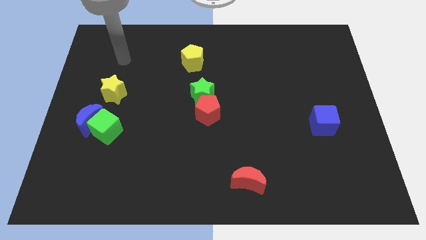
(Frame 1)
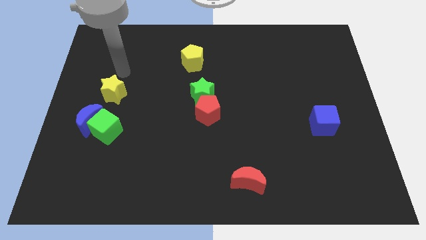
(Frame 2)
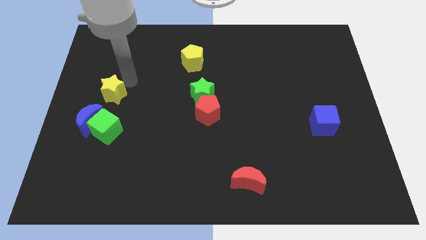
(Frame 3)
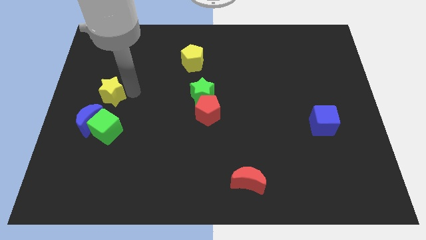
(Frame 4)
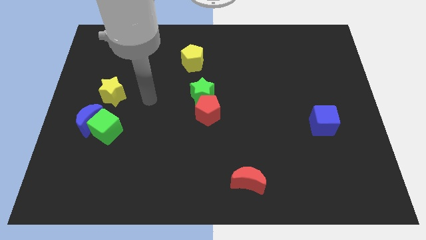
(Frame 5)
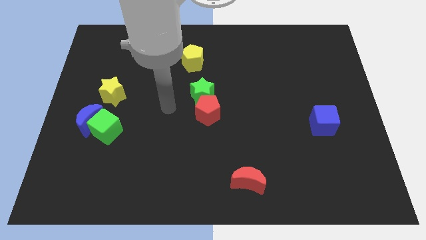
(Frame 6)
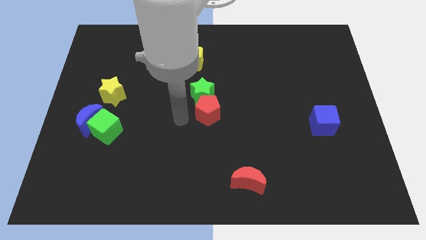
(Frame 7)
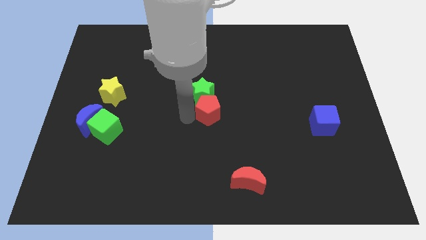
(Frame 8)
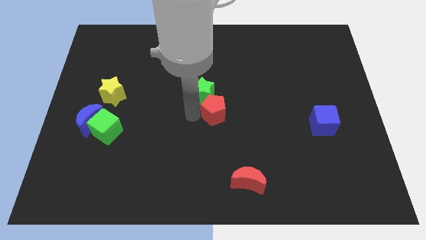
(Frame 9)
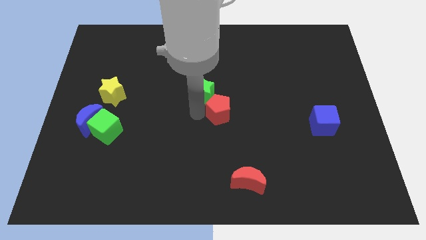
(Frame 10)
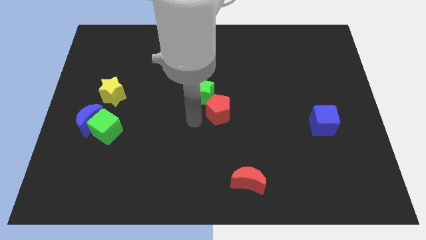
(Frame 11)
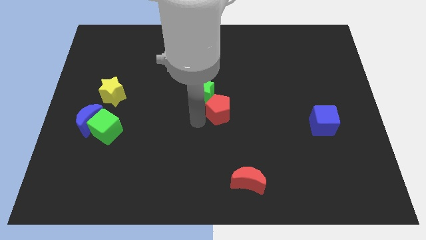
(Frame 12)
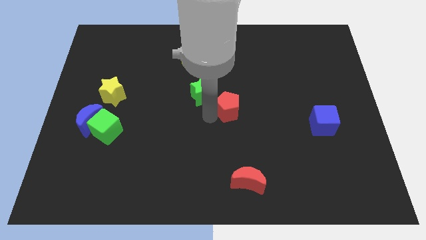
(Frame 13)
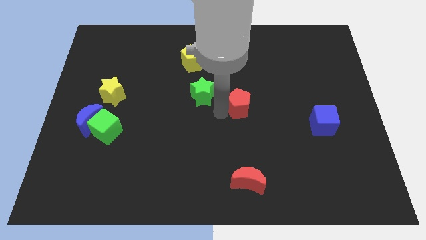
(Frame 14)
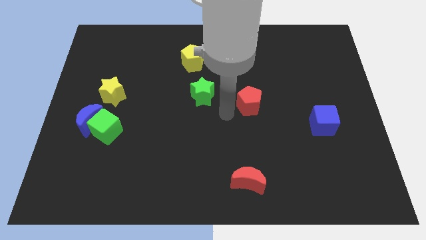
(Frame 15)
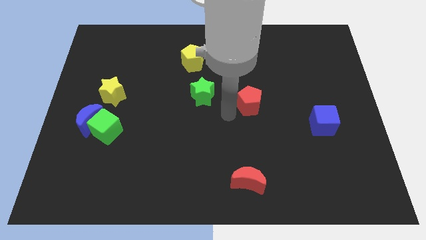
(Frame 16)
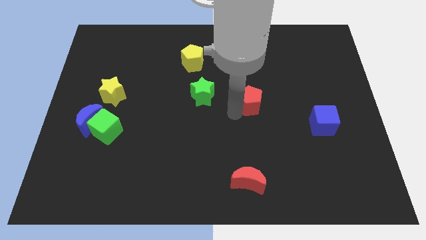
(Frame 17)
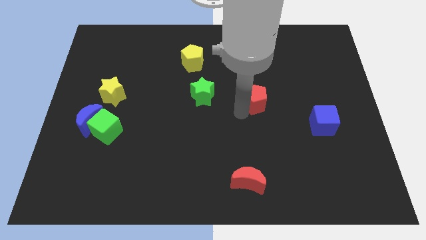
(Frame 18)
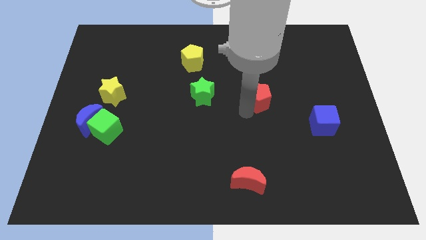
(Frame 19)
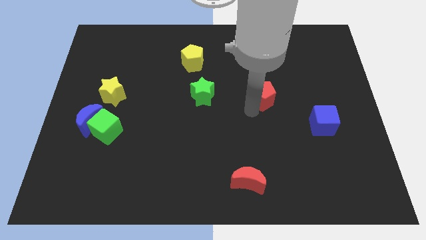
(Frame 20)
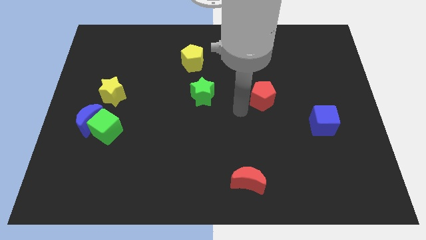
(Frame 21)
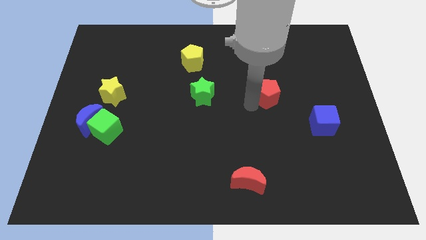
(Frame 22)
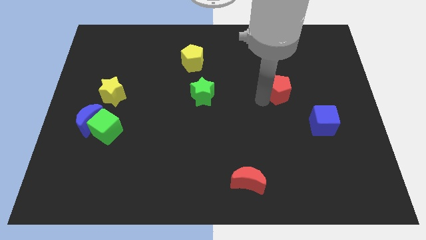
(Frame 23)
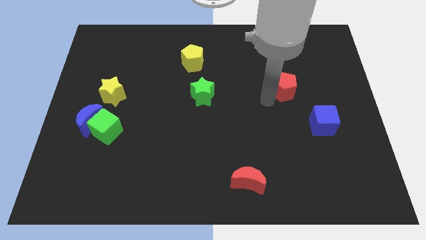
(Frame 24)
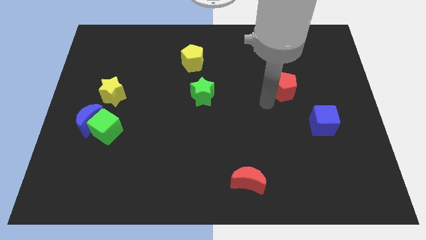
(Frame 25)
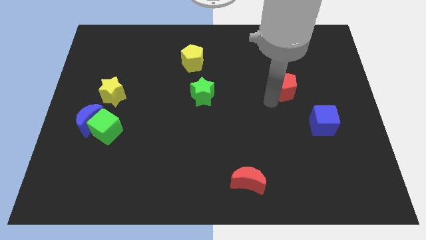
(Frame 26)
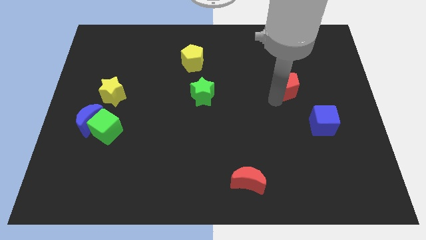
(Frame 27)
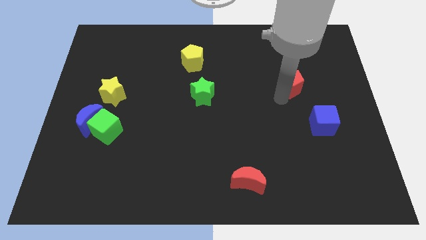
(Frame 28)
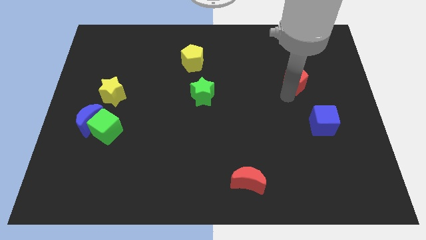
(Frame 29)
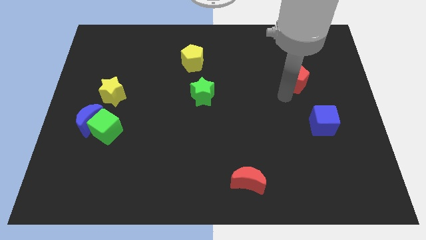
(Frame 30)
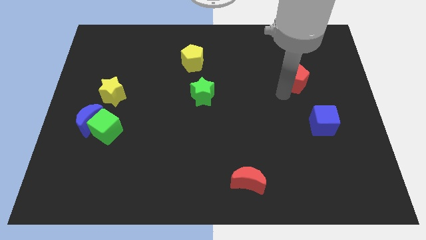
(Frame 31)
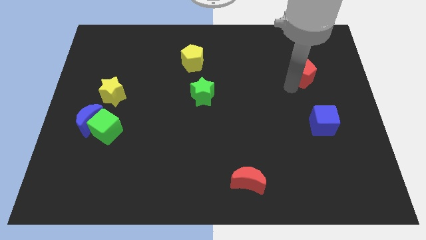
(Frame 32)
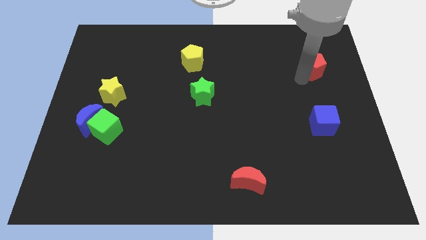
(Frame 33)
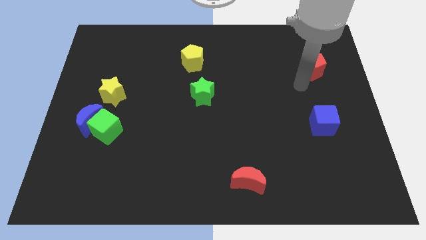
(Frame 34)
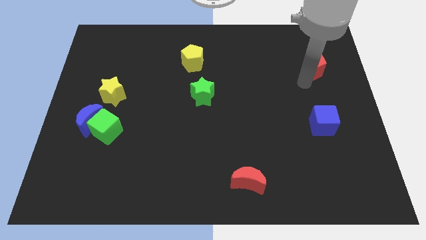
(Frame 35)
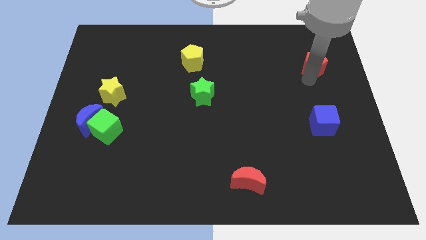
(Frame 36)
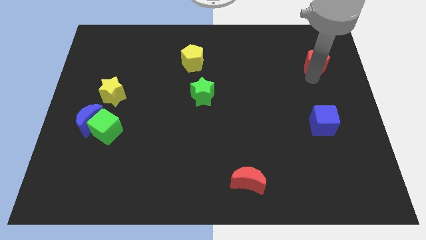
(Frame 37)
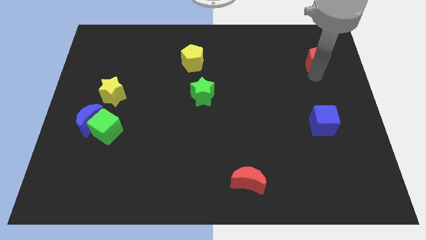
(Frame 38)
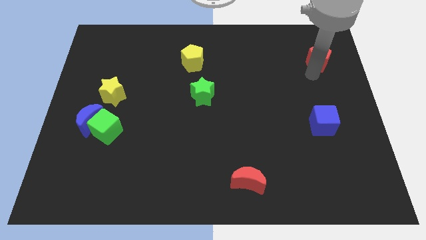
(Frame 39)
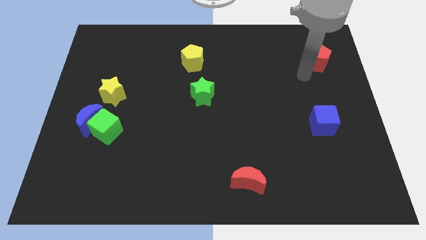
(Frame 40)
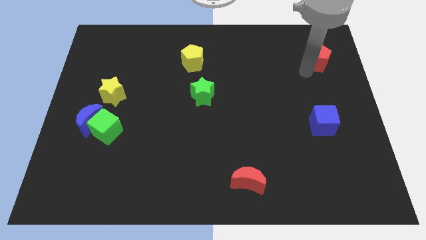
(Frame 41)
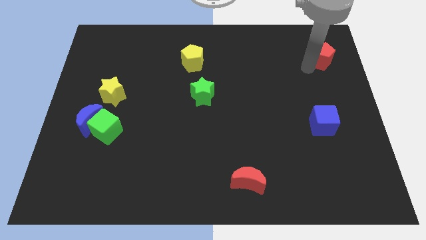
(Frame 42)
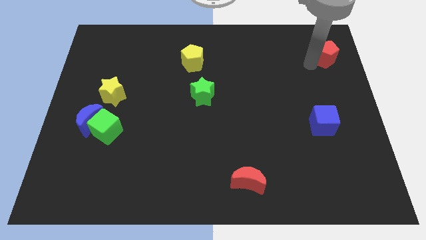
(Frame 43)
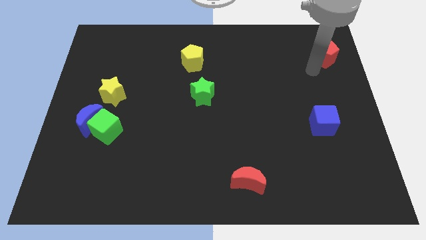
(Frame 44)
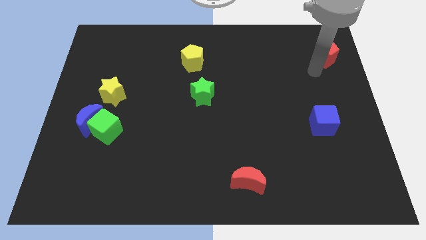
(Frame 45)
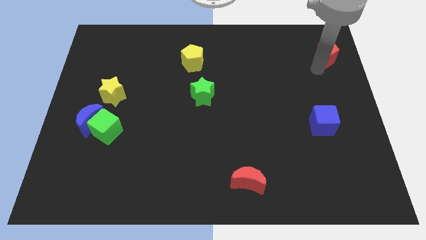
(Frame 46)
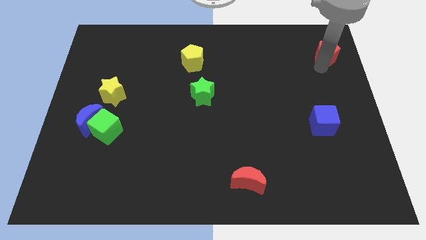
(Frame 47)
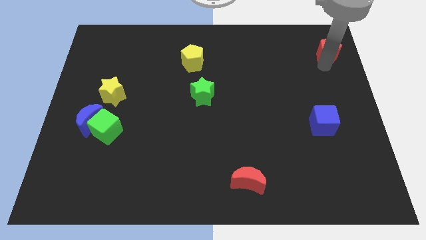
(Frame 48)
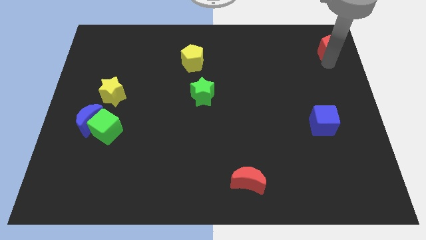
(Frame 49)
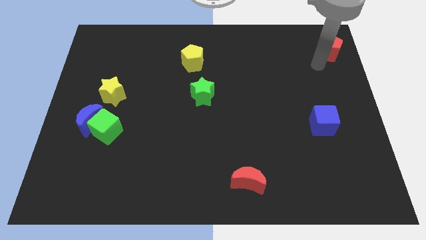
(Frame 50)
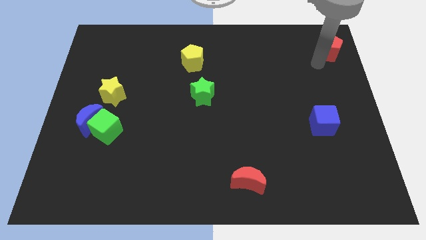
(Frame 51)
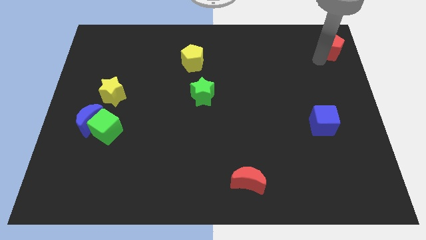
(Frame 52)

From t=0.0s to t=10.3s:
slide the red pentagon to the upper right corner

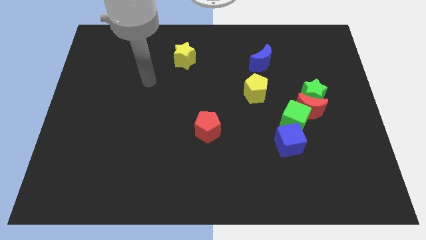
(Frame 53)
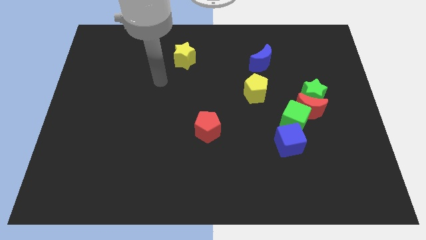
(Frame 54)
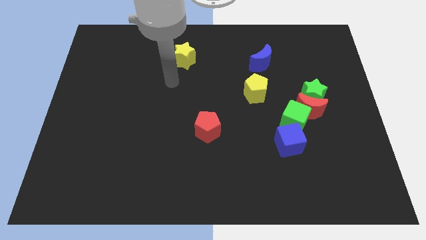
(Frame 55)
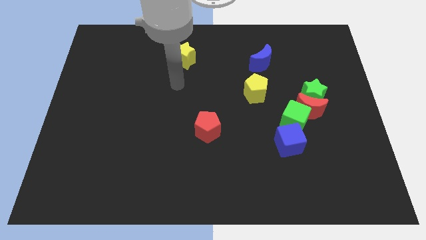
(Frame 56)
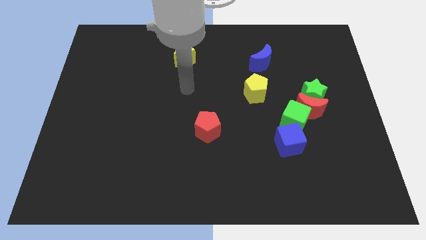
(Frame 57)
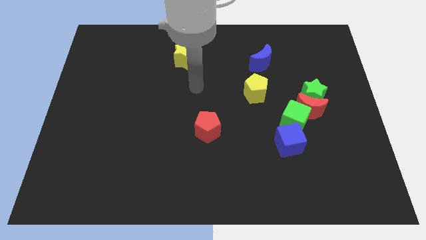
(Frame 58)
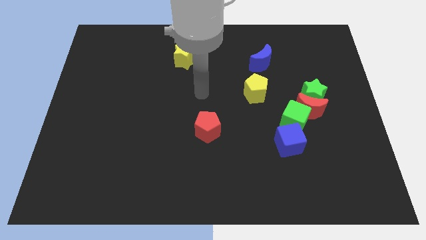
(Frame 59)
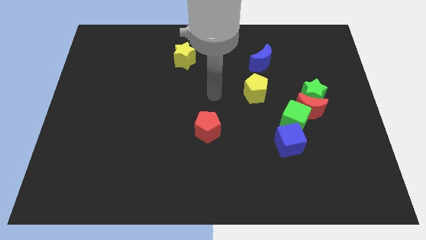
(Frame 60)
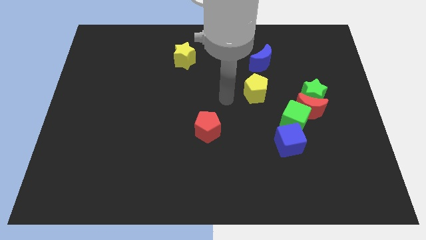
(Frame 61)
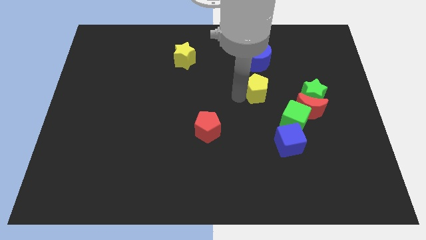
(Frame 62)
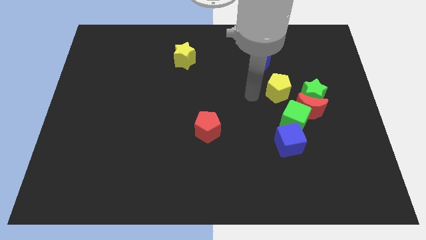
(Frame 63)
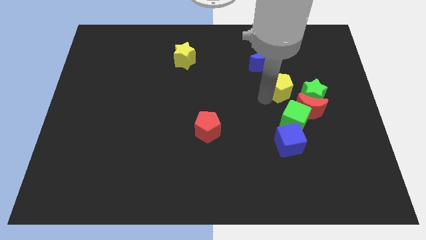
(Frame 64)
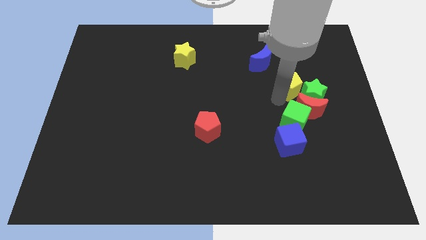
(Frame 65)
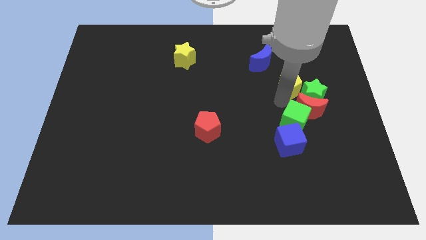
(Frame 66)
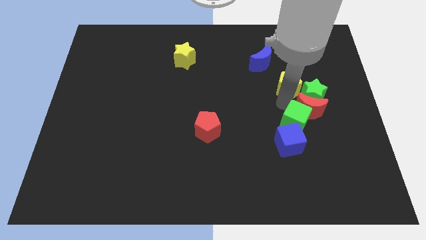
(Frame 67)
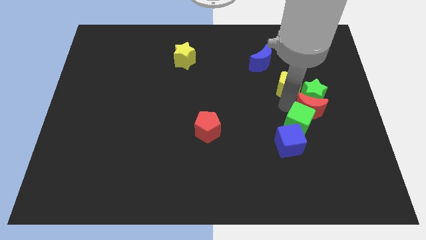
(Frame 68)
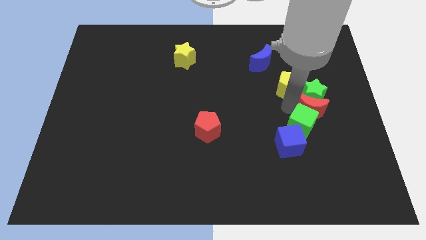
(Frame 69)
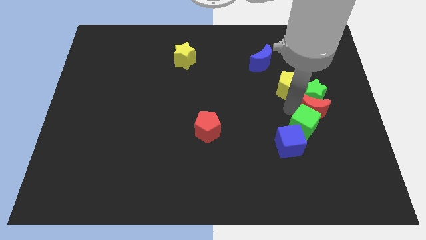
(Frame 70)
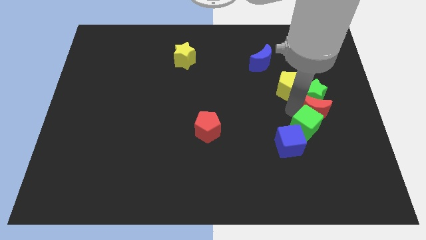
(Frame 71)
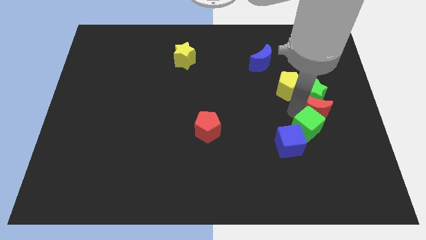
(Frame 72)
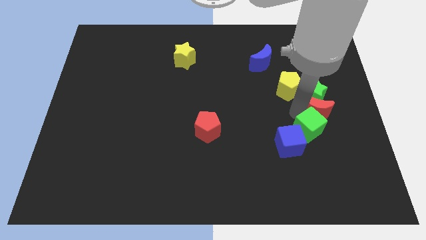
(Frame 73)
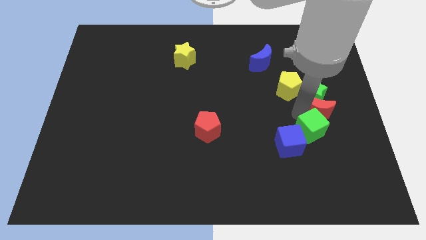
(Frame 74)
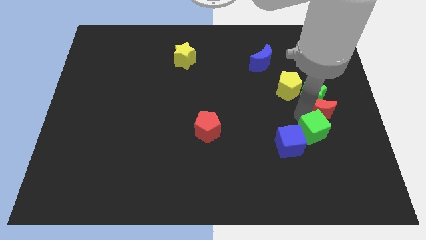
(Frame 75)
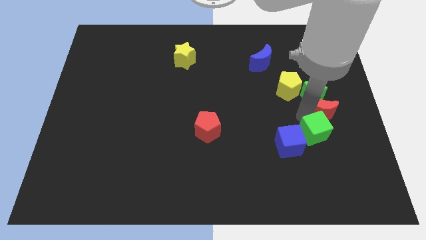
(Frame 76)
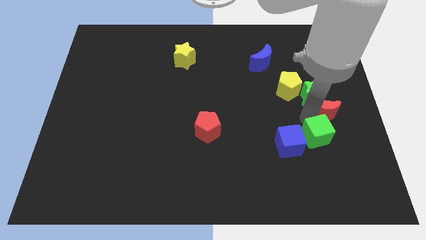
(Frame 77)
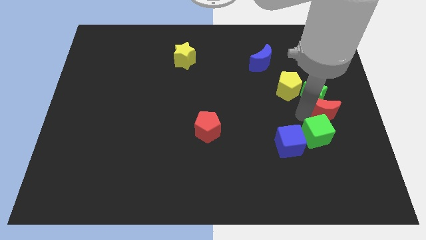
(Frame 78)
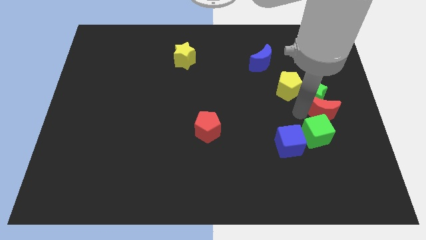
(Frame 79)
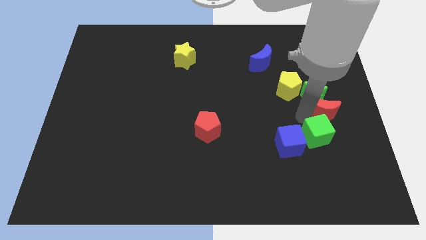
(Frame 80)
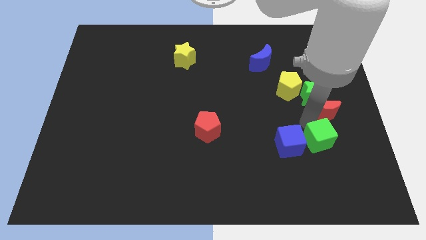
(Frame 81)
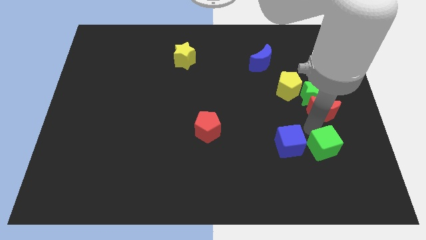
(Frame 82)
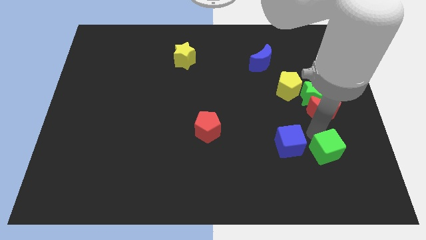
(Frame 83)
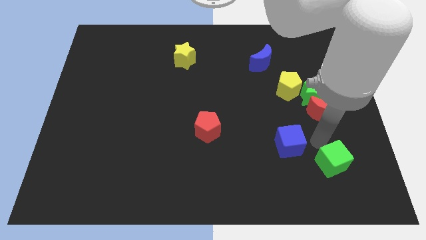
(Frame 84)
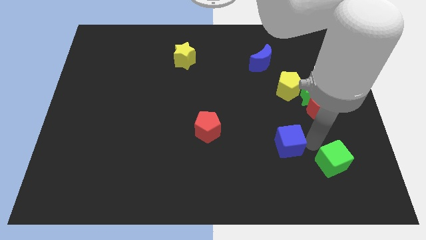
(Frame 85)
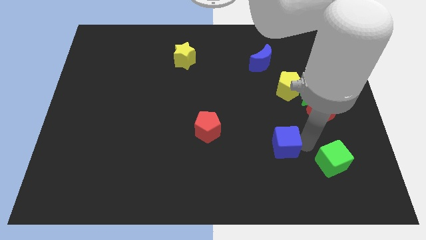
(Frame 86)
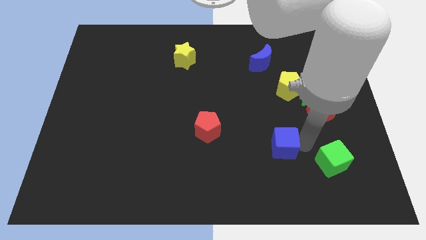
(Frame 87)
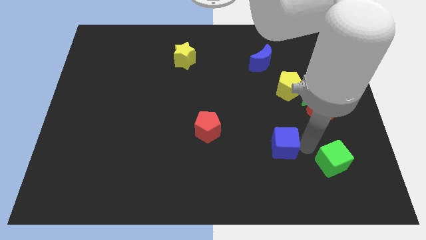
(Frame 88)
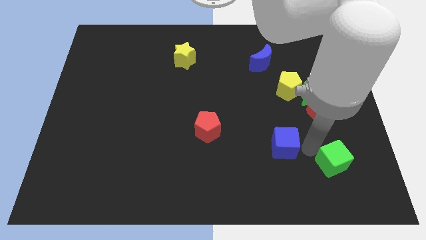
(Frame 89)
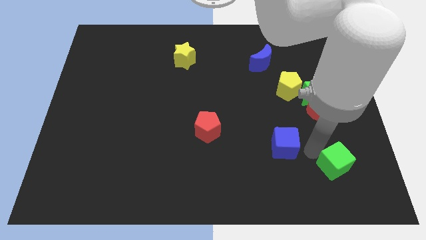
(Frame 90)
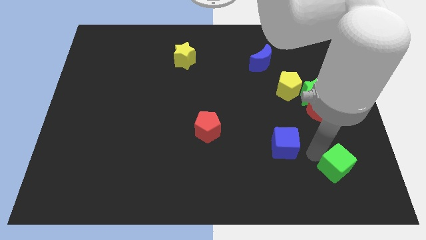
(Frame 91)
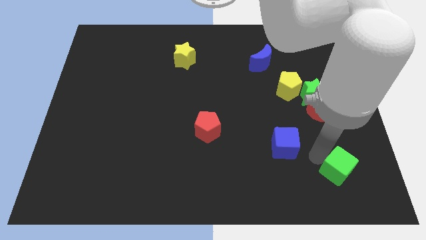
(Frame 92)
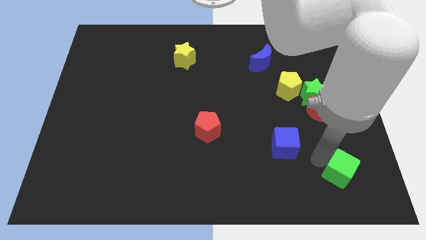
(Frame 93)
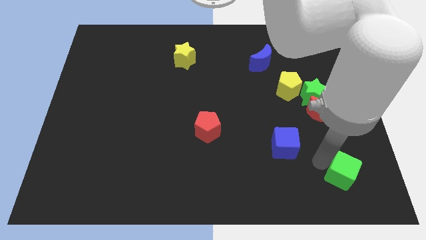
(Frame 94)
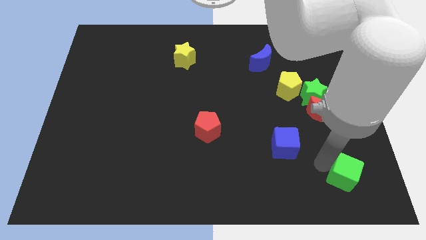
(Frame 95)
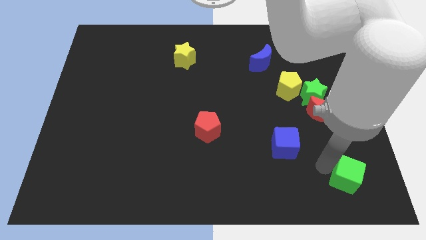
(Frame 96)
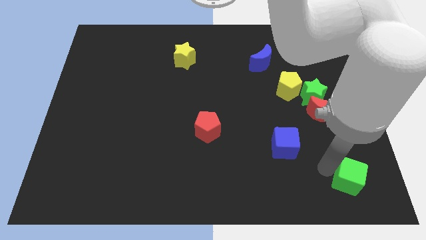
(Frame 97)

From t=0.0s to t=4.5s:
push the green cube to the bottom right corner
